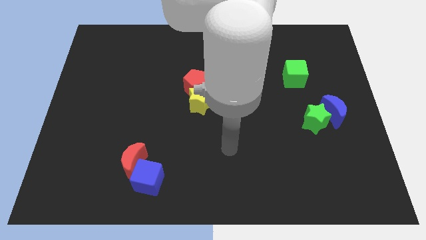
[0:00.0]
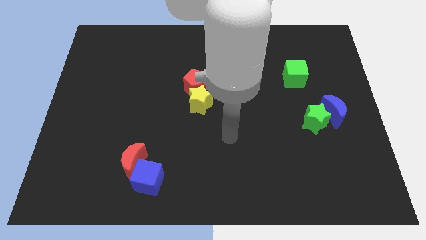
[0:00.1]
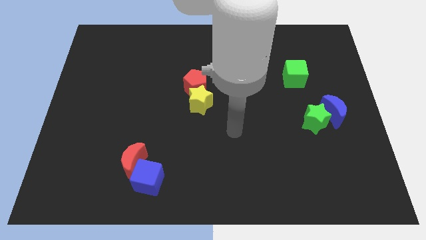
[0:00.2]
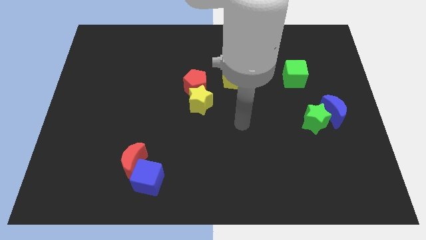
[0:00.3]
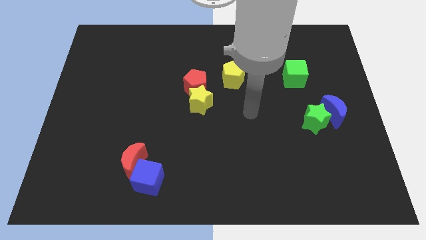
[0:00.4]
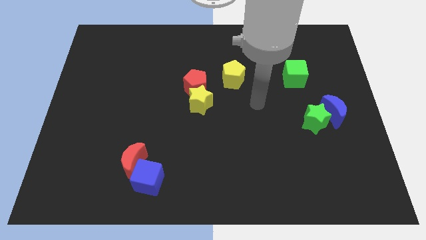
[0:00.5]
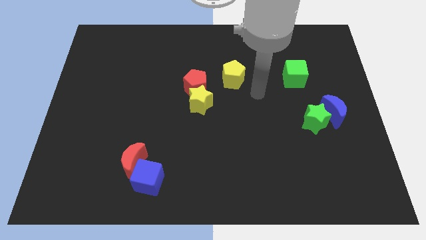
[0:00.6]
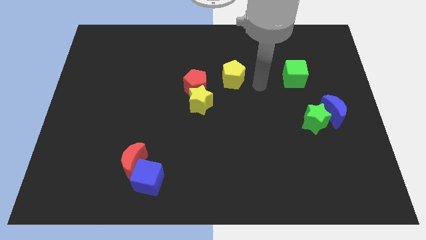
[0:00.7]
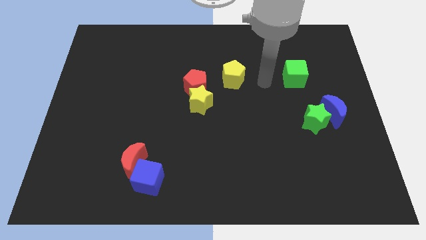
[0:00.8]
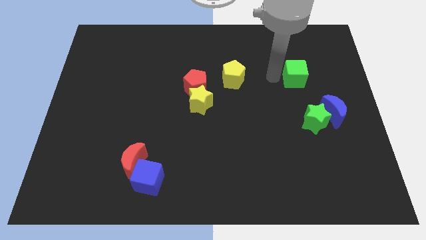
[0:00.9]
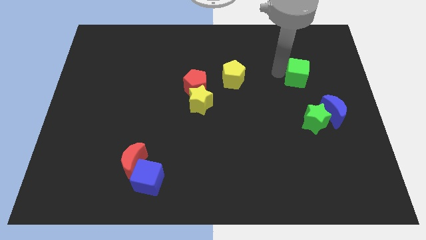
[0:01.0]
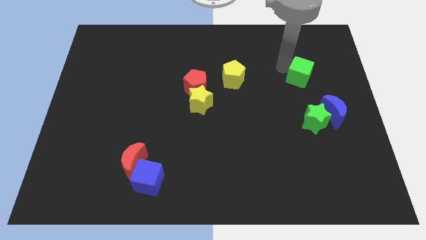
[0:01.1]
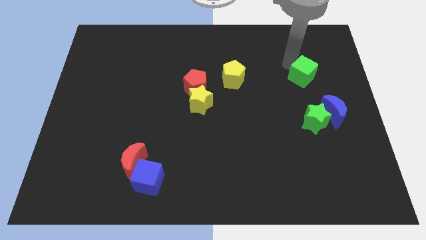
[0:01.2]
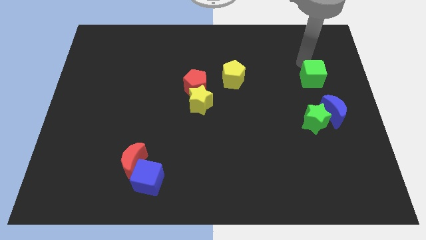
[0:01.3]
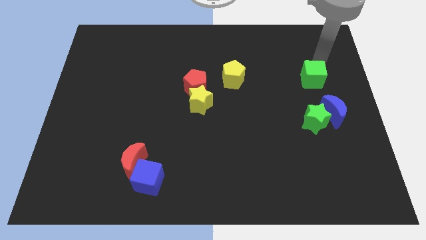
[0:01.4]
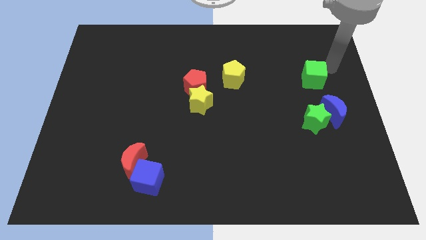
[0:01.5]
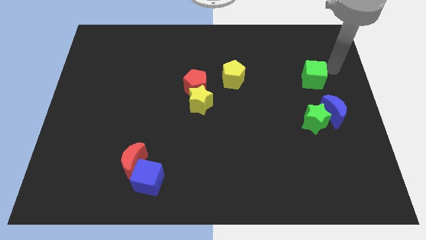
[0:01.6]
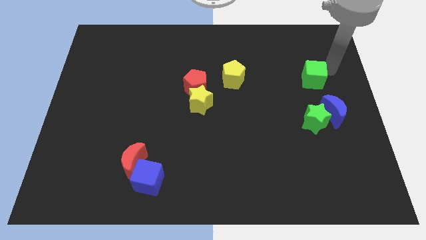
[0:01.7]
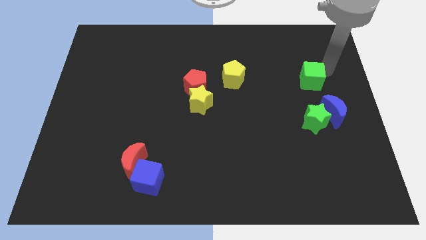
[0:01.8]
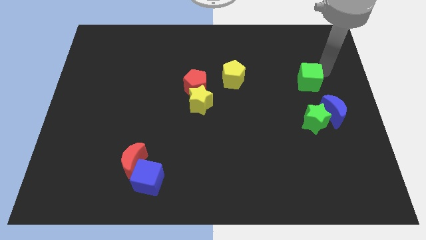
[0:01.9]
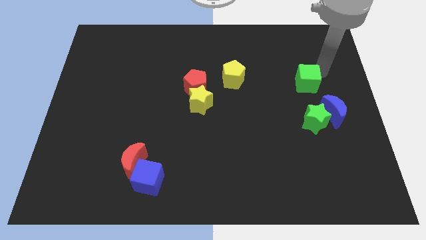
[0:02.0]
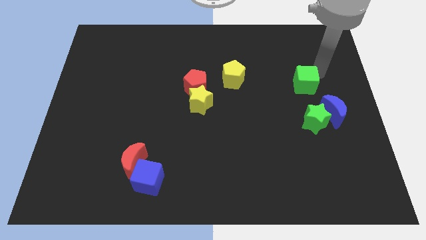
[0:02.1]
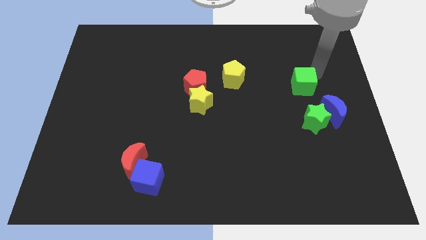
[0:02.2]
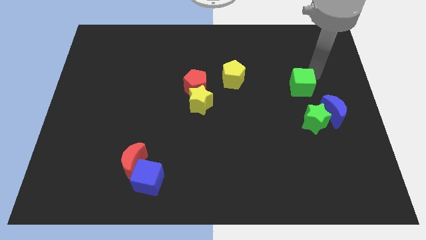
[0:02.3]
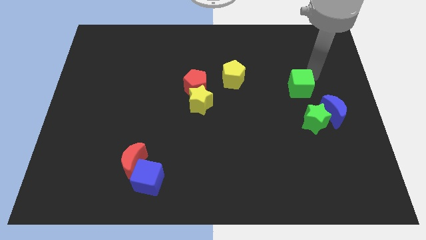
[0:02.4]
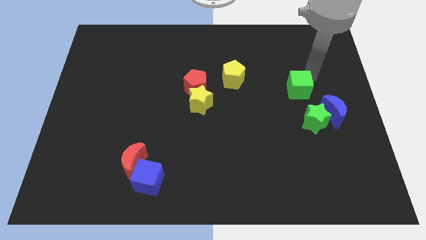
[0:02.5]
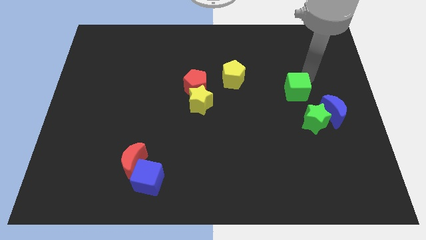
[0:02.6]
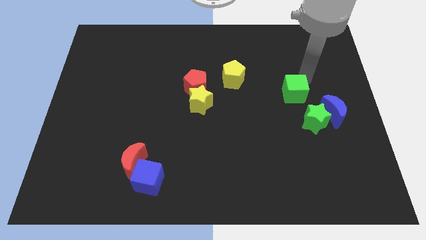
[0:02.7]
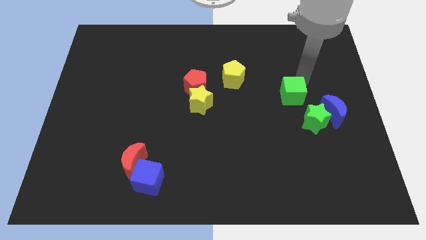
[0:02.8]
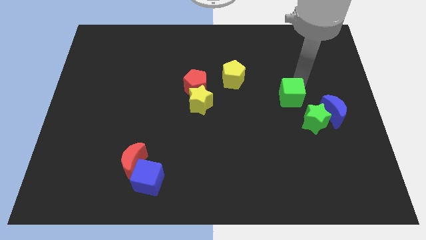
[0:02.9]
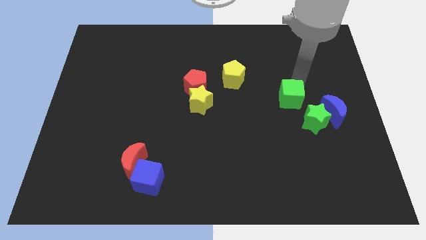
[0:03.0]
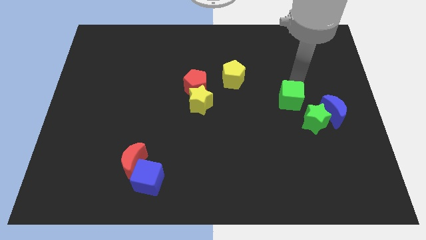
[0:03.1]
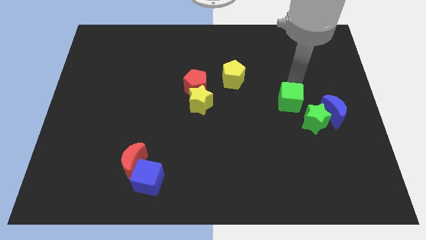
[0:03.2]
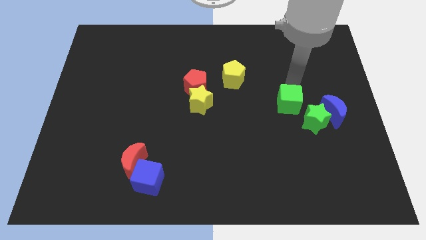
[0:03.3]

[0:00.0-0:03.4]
move the green cube a bit diagonally down and to the left

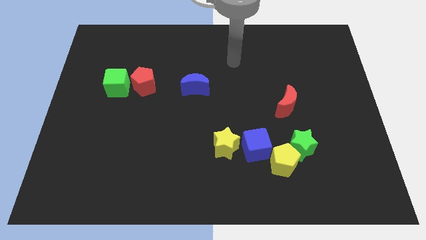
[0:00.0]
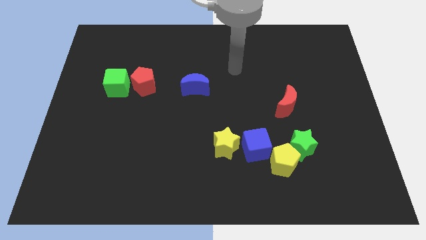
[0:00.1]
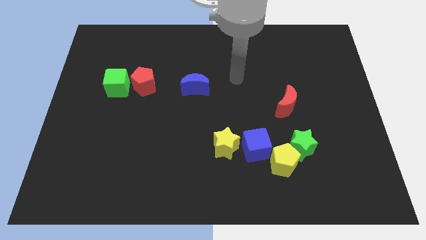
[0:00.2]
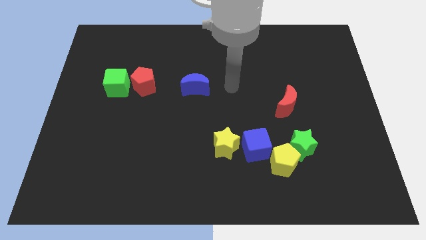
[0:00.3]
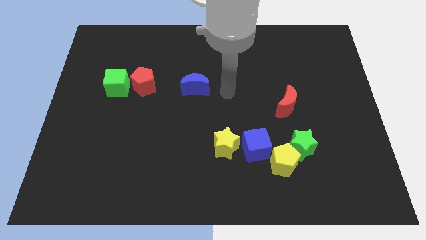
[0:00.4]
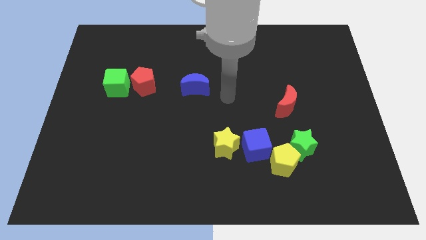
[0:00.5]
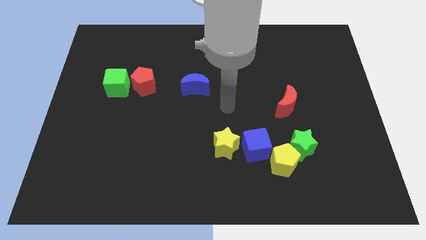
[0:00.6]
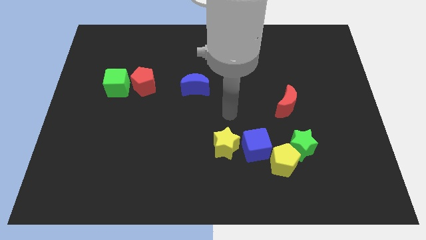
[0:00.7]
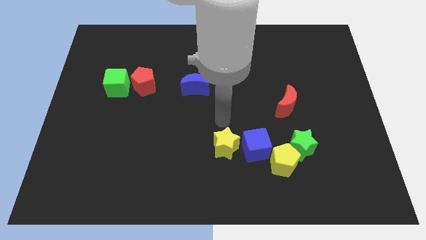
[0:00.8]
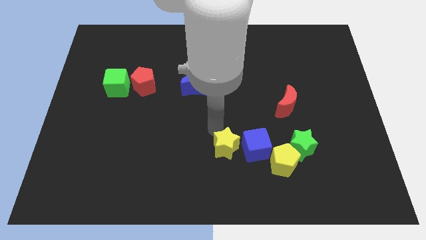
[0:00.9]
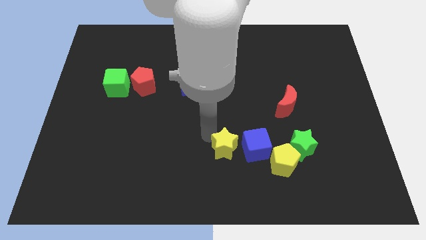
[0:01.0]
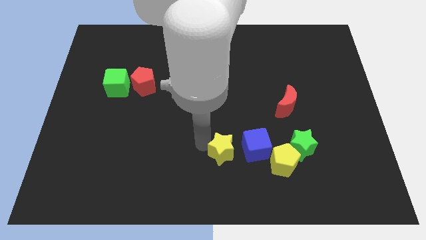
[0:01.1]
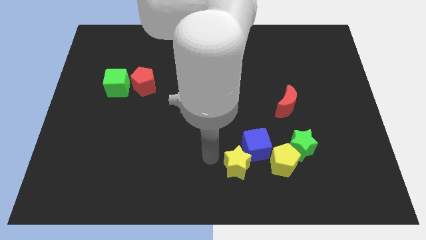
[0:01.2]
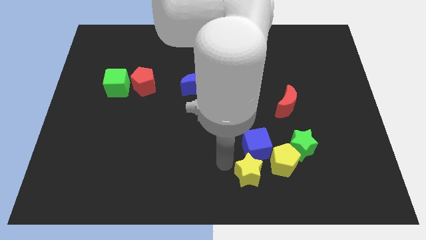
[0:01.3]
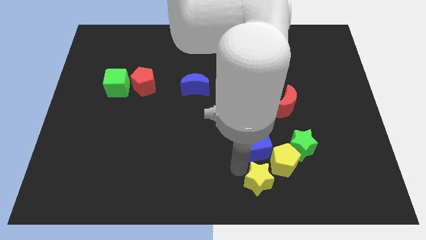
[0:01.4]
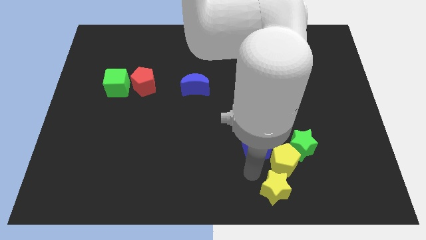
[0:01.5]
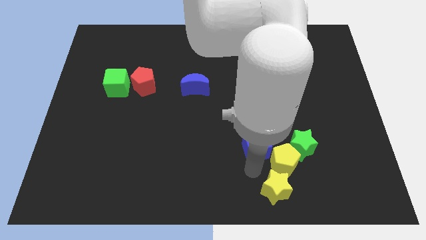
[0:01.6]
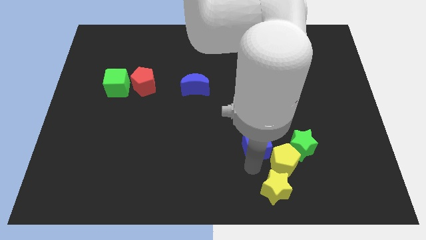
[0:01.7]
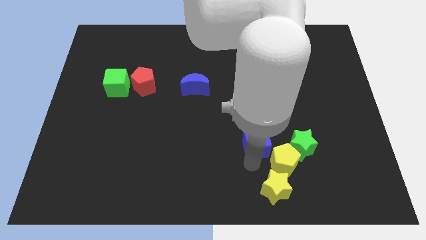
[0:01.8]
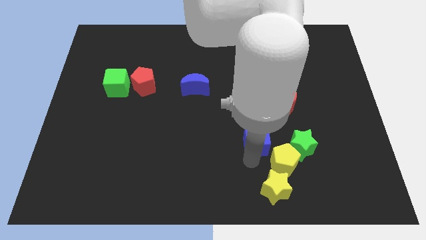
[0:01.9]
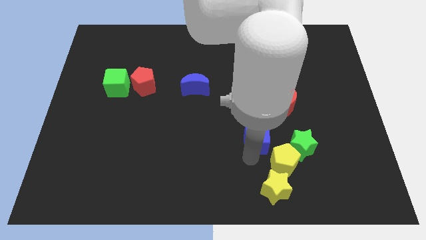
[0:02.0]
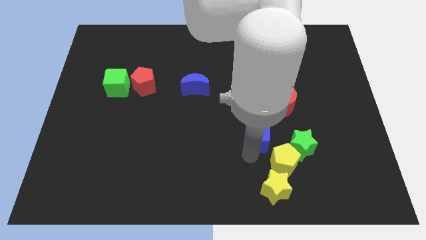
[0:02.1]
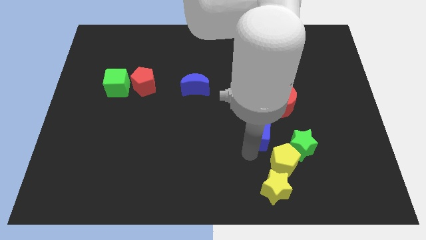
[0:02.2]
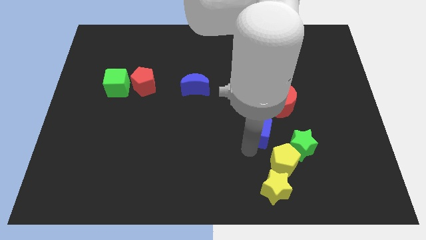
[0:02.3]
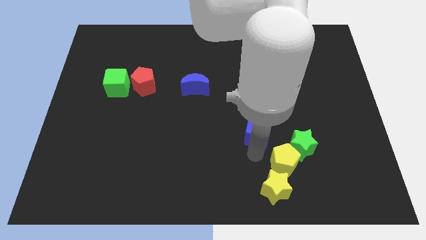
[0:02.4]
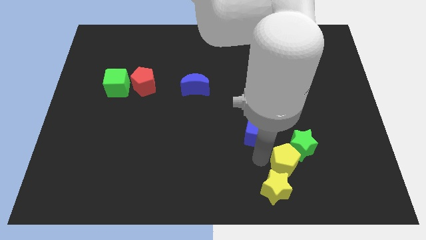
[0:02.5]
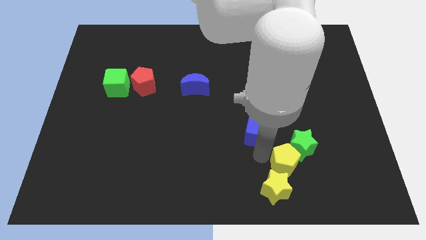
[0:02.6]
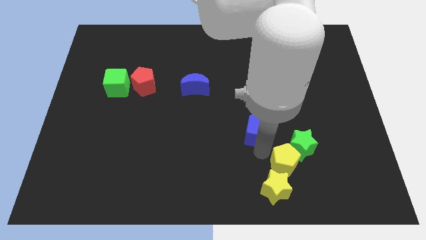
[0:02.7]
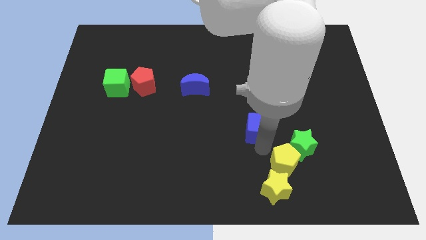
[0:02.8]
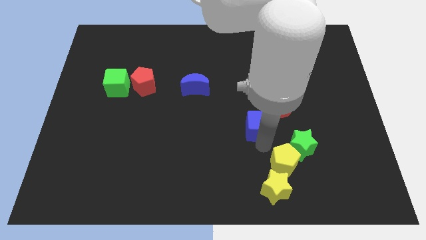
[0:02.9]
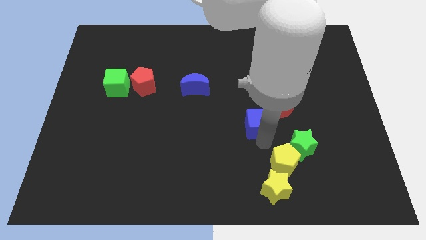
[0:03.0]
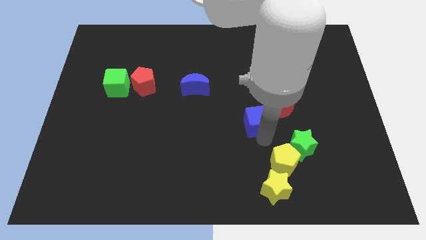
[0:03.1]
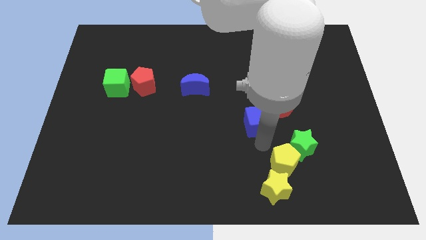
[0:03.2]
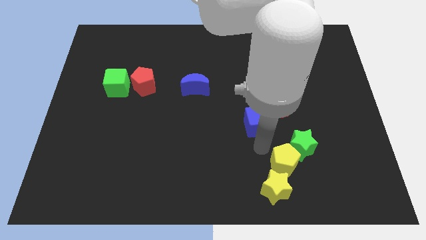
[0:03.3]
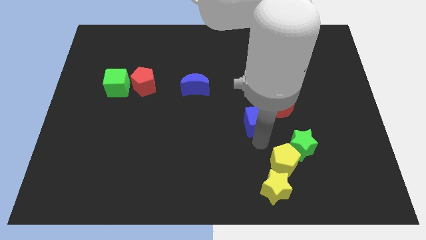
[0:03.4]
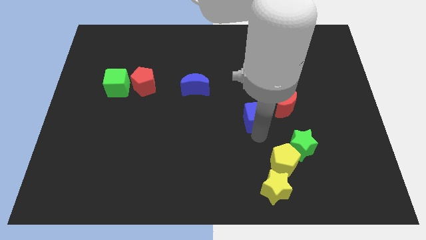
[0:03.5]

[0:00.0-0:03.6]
push the blue cube up somewhat

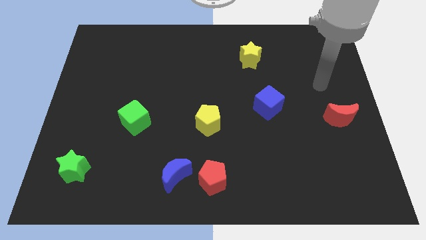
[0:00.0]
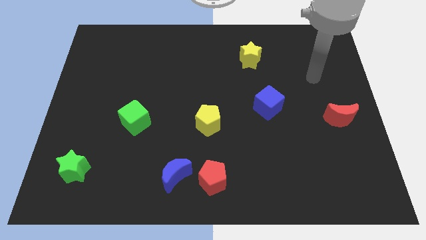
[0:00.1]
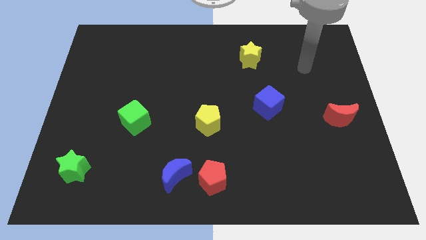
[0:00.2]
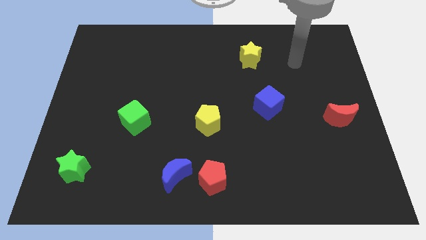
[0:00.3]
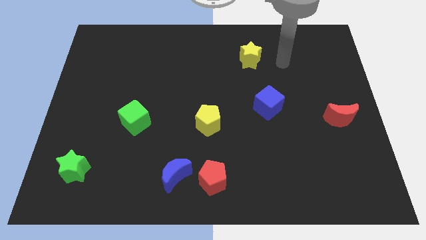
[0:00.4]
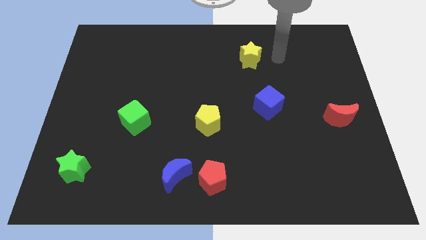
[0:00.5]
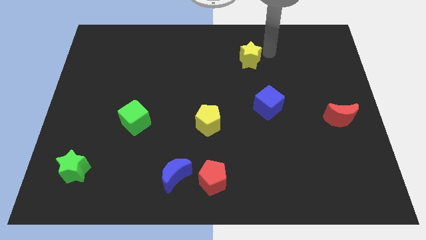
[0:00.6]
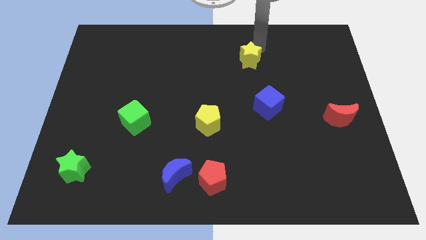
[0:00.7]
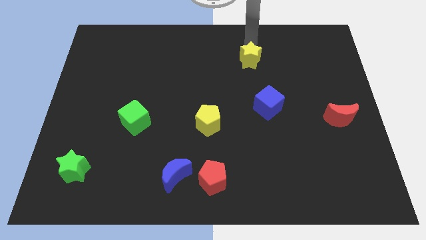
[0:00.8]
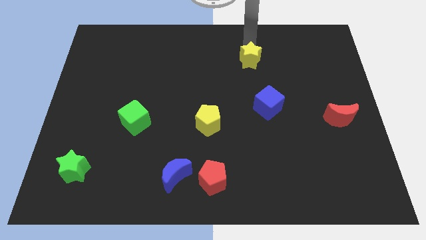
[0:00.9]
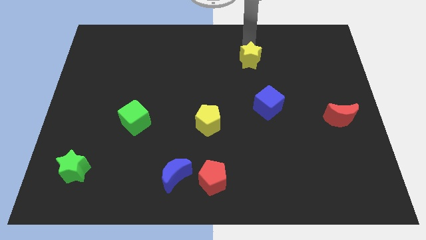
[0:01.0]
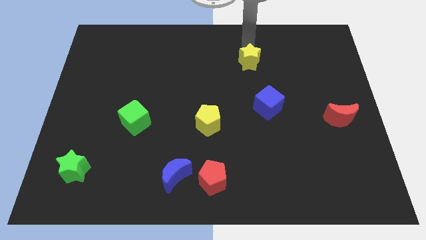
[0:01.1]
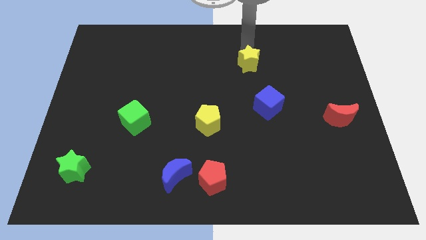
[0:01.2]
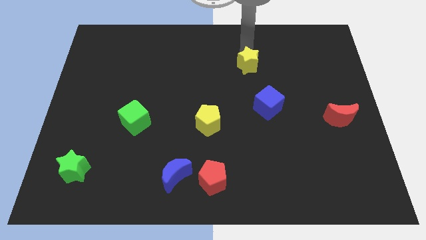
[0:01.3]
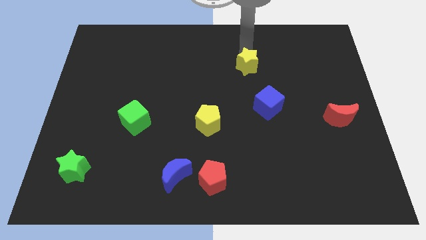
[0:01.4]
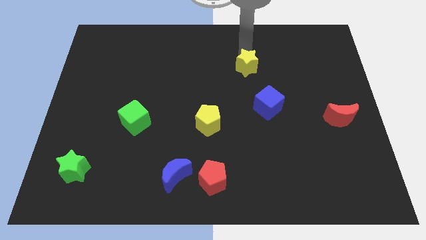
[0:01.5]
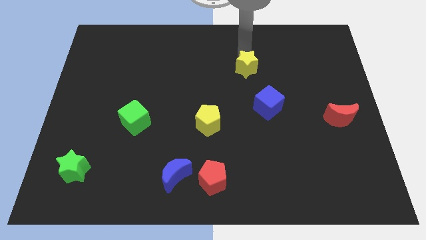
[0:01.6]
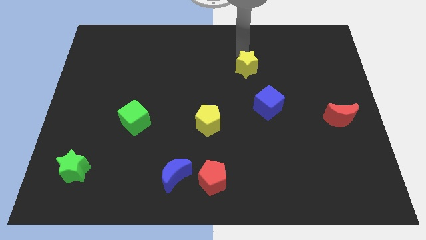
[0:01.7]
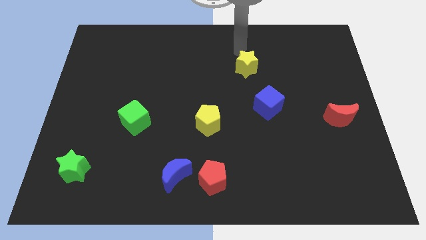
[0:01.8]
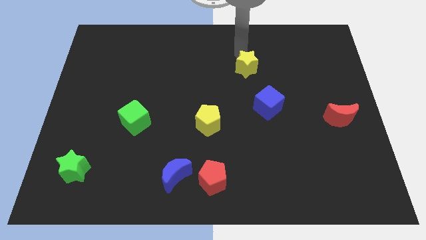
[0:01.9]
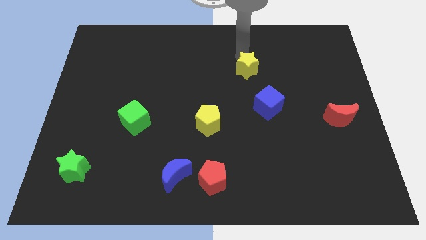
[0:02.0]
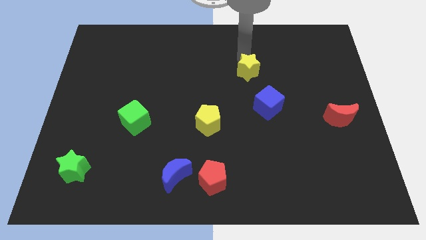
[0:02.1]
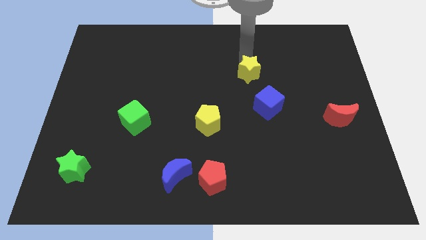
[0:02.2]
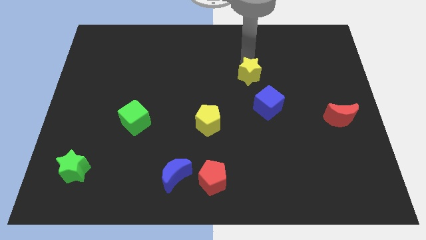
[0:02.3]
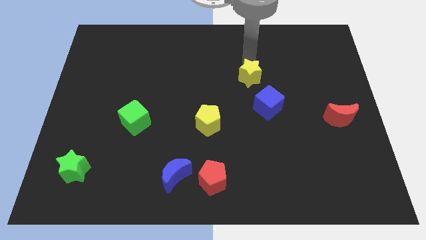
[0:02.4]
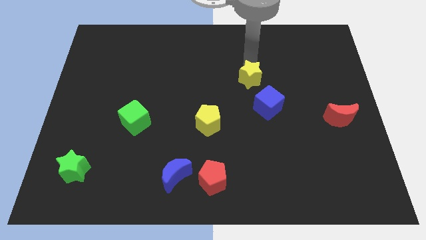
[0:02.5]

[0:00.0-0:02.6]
slightly move the yellow star down
